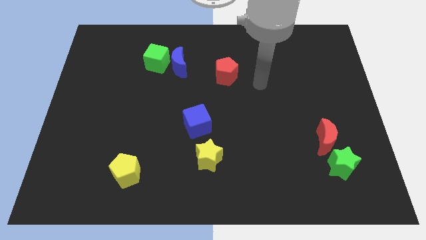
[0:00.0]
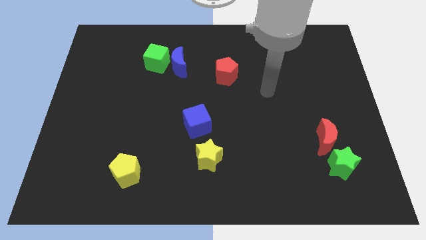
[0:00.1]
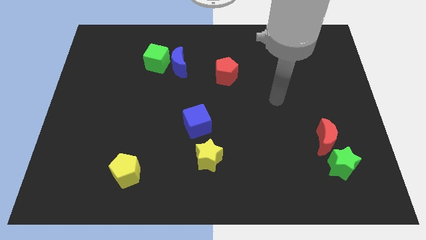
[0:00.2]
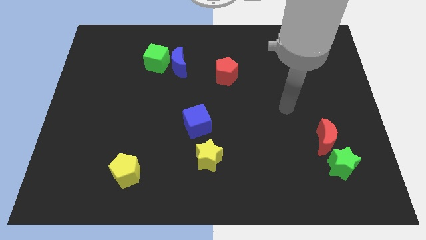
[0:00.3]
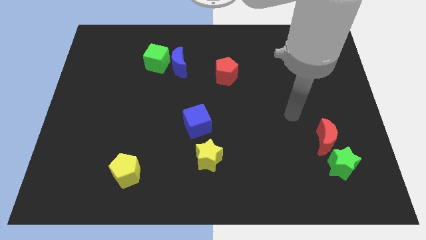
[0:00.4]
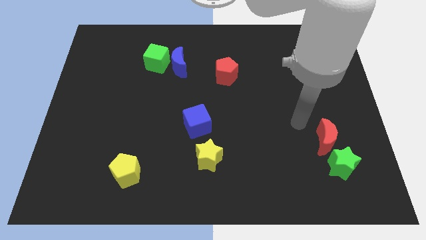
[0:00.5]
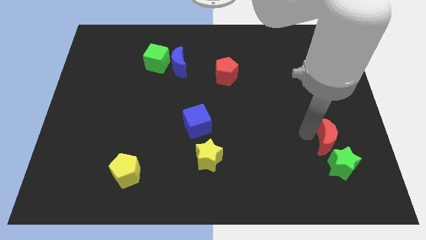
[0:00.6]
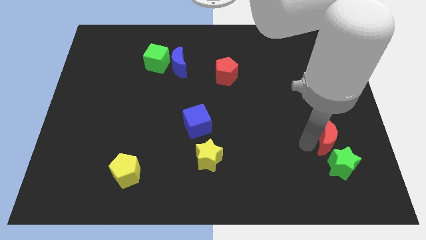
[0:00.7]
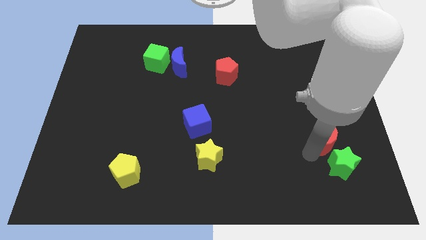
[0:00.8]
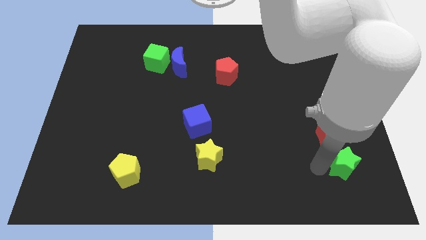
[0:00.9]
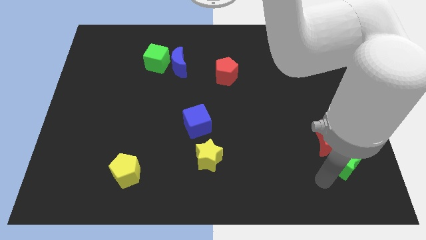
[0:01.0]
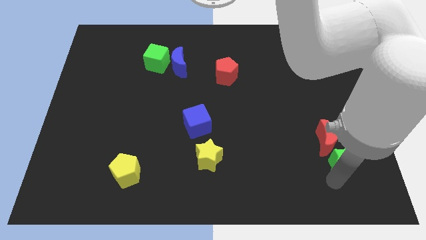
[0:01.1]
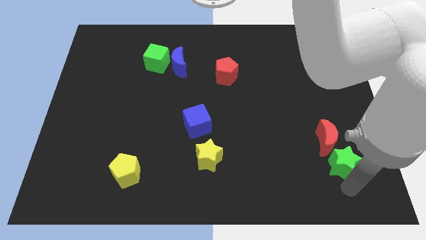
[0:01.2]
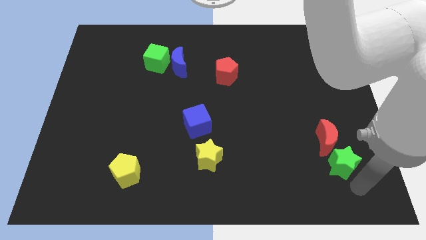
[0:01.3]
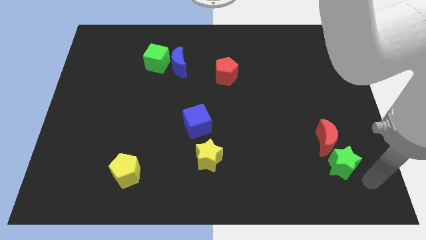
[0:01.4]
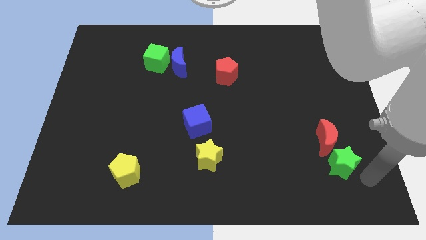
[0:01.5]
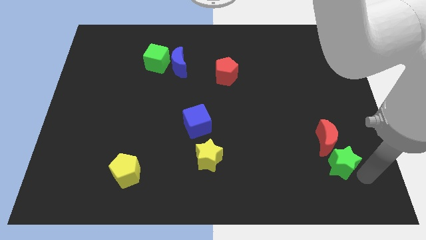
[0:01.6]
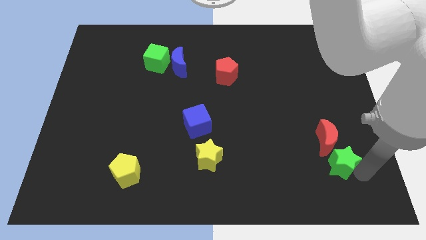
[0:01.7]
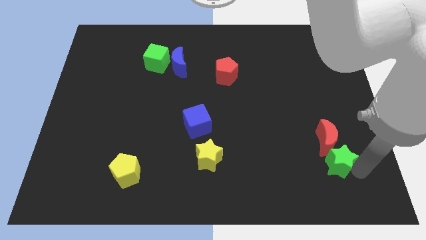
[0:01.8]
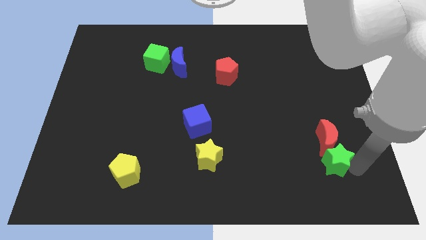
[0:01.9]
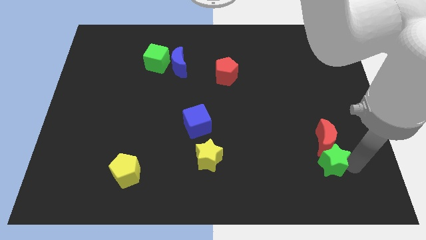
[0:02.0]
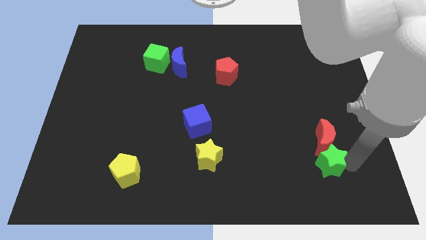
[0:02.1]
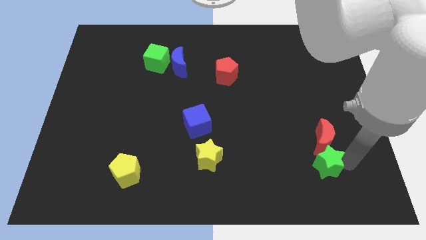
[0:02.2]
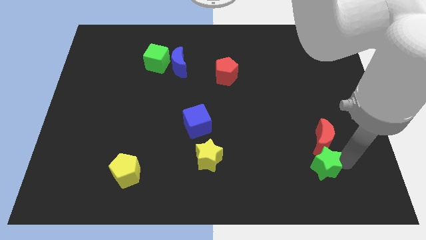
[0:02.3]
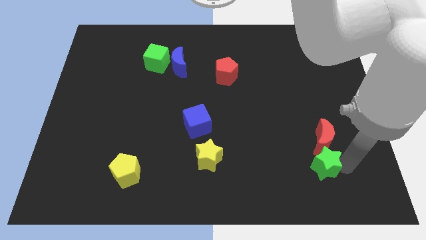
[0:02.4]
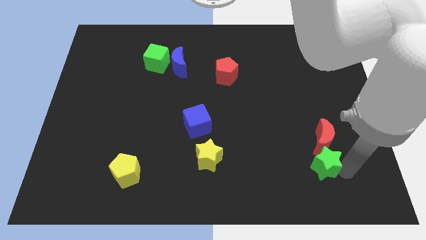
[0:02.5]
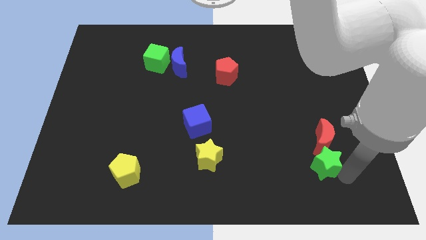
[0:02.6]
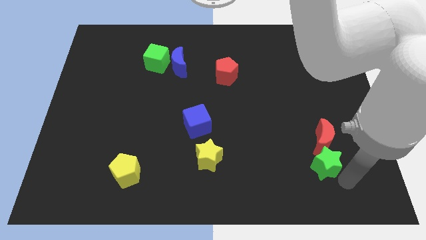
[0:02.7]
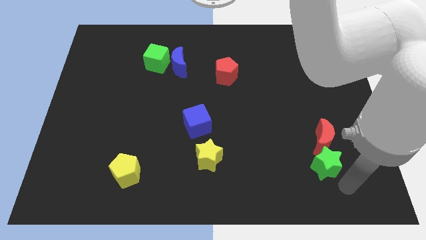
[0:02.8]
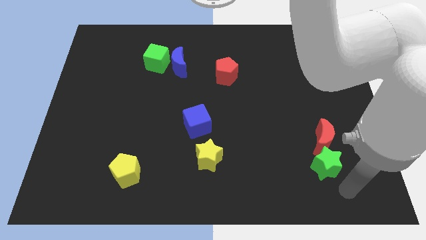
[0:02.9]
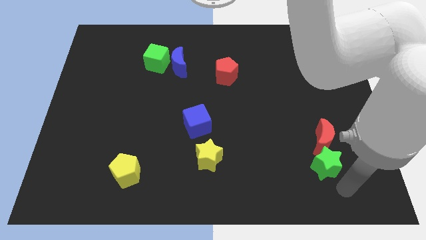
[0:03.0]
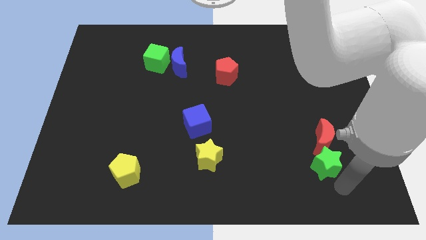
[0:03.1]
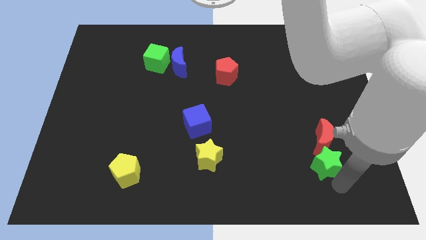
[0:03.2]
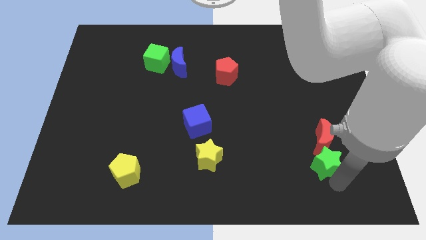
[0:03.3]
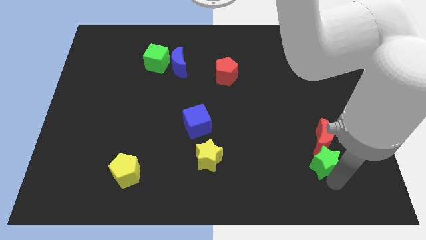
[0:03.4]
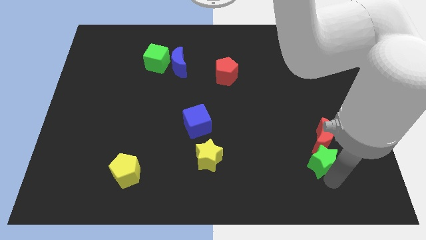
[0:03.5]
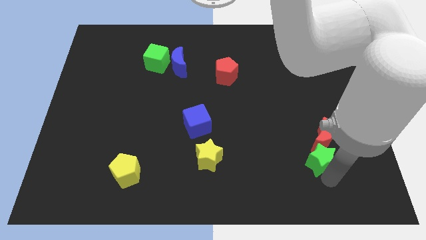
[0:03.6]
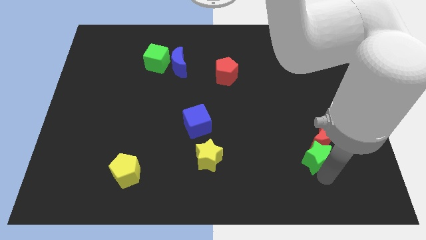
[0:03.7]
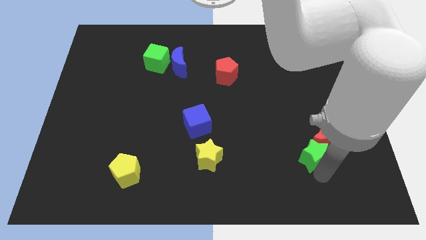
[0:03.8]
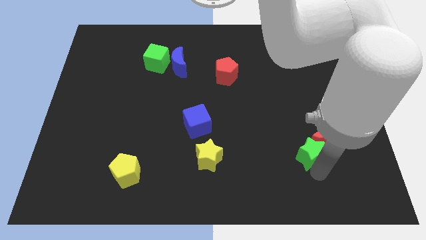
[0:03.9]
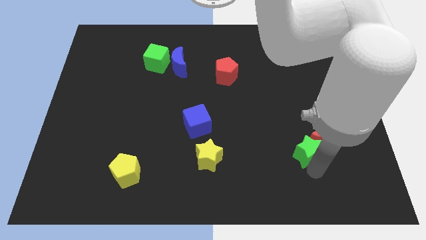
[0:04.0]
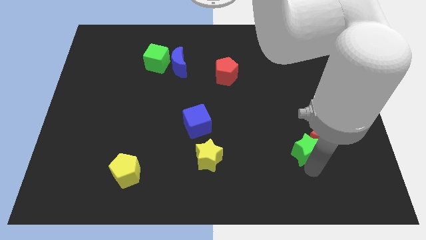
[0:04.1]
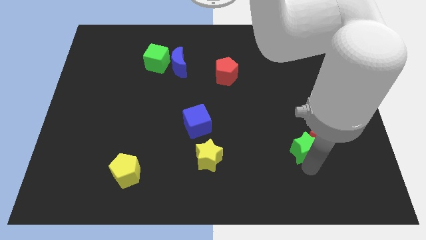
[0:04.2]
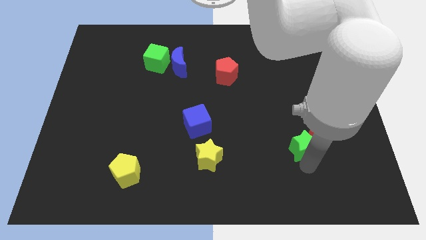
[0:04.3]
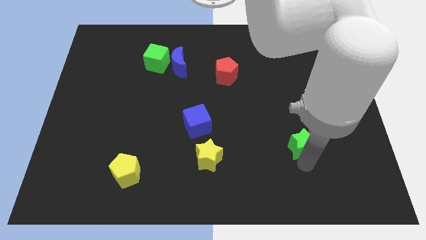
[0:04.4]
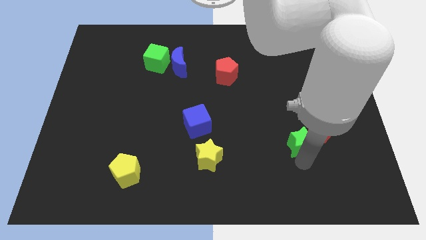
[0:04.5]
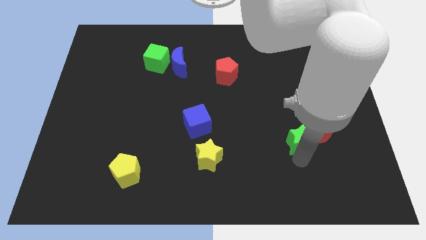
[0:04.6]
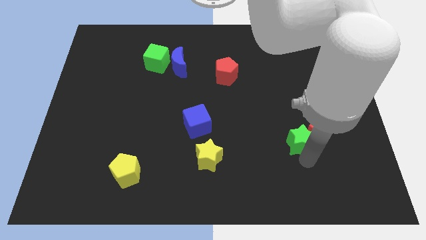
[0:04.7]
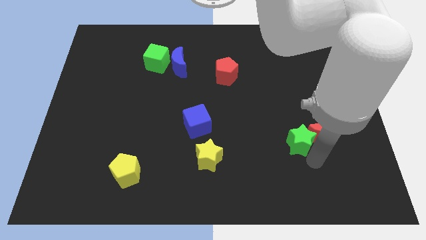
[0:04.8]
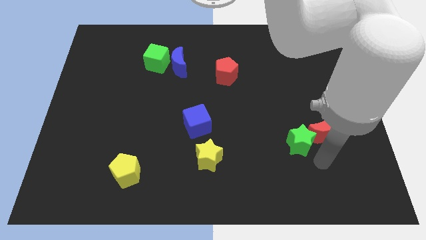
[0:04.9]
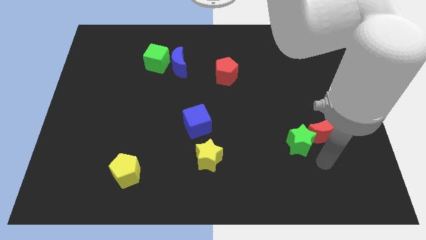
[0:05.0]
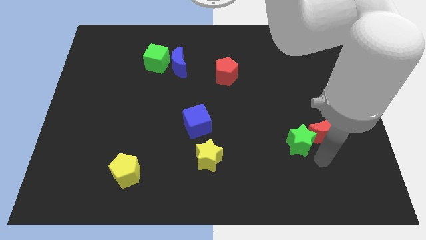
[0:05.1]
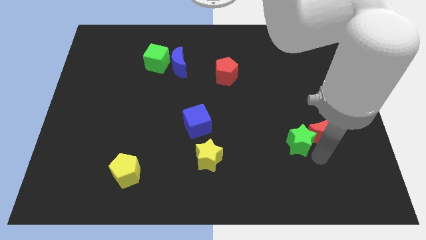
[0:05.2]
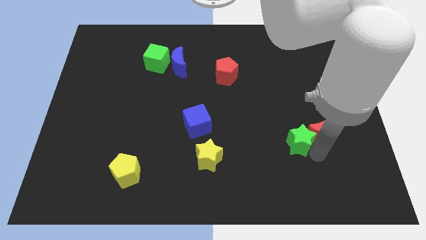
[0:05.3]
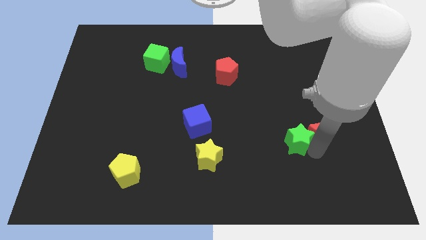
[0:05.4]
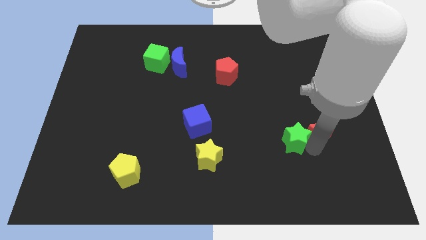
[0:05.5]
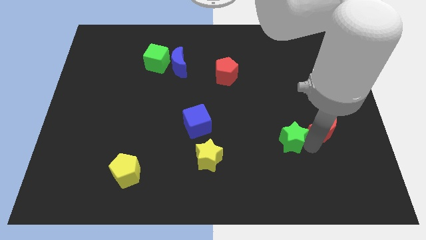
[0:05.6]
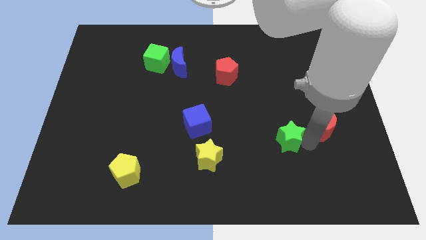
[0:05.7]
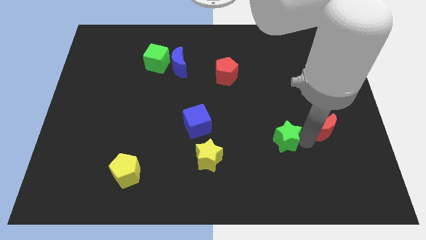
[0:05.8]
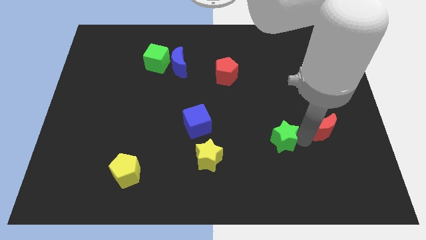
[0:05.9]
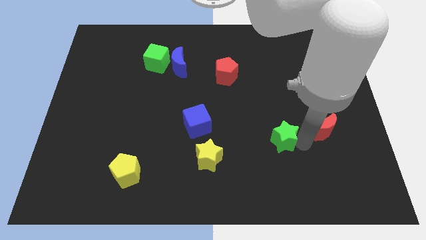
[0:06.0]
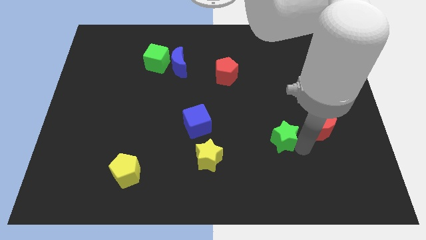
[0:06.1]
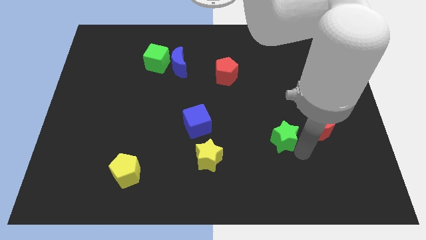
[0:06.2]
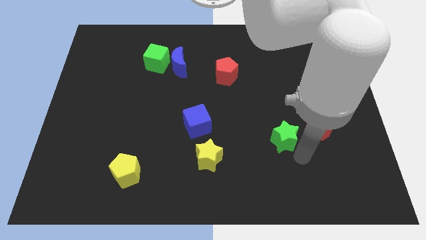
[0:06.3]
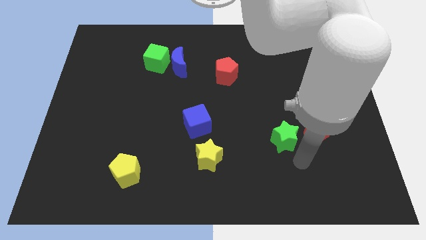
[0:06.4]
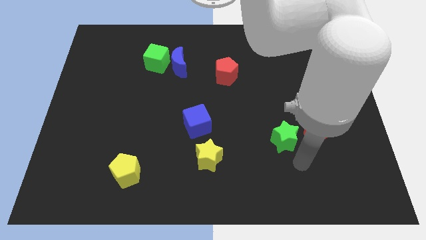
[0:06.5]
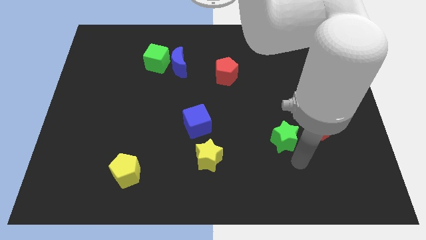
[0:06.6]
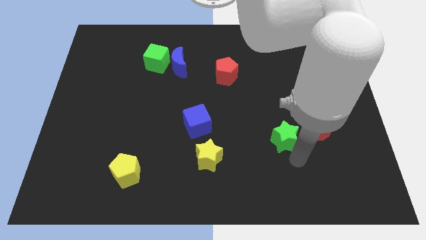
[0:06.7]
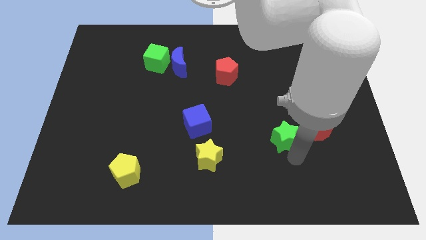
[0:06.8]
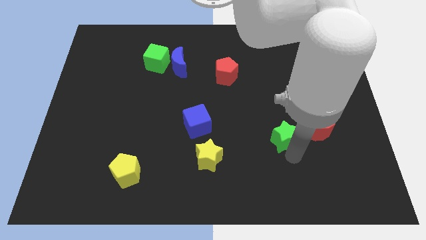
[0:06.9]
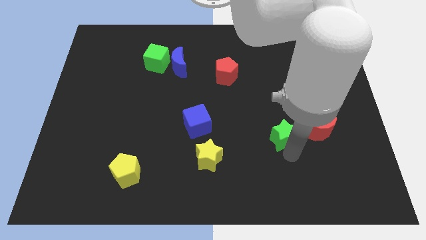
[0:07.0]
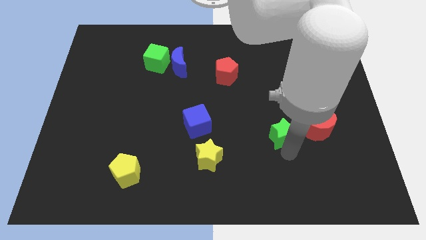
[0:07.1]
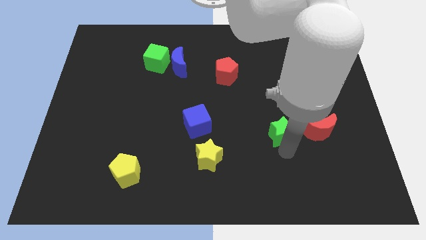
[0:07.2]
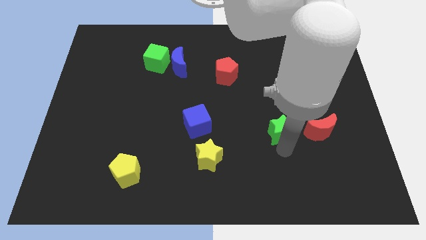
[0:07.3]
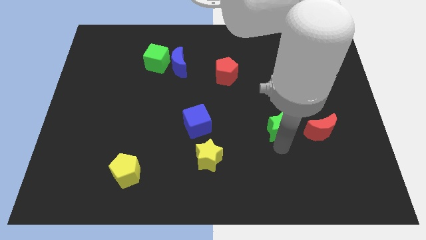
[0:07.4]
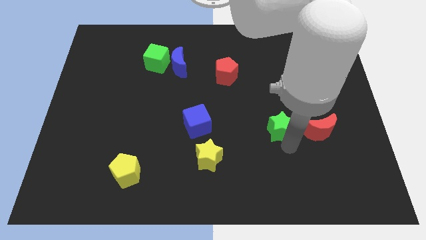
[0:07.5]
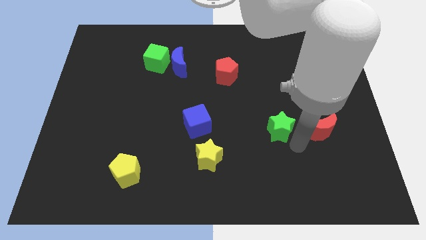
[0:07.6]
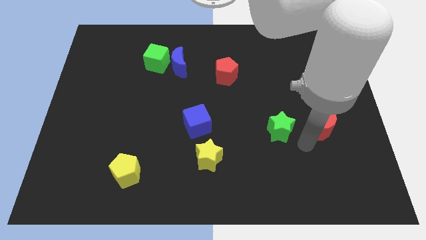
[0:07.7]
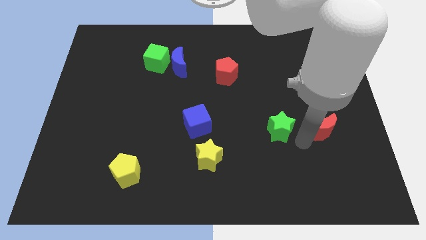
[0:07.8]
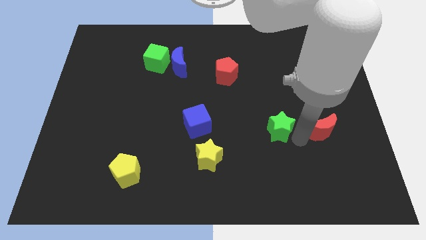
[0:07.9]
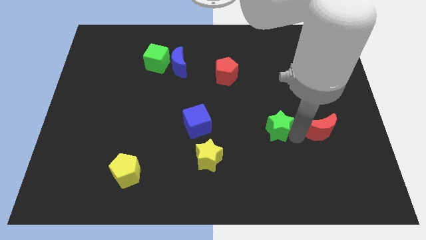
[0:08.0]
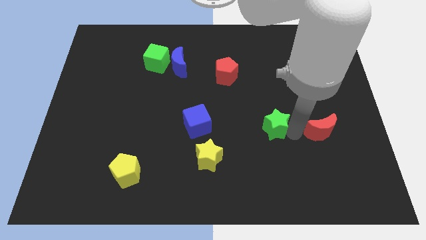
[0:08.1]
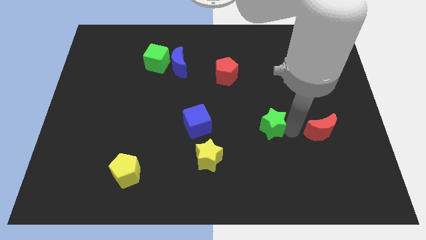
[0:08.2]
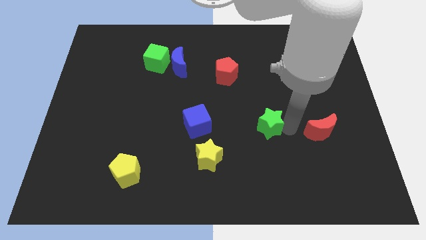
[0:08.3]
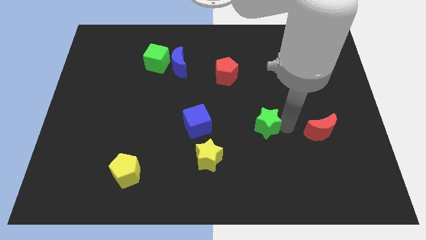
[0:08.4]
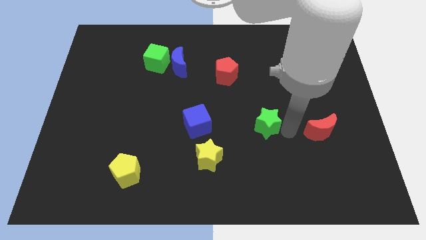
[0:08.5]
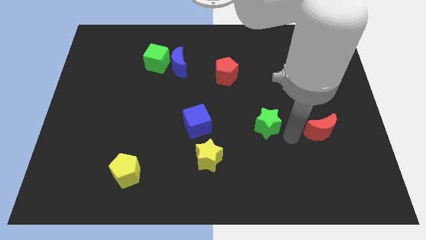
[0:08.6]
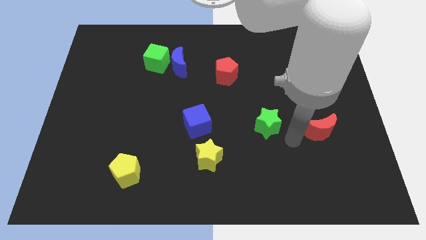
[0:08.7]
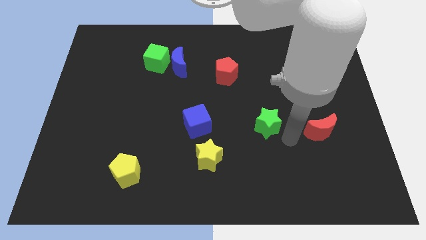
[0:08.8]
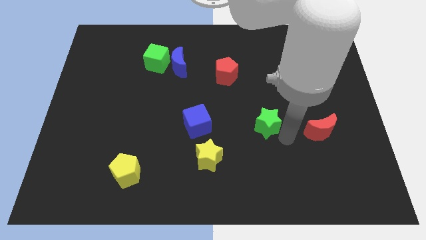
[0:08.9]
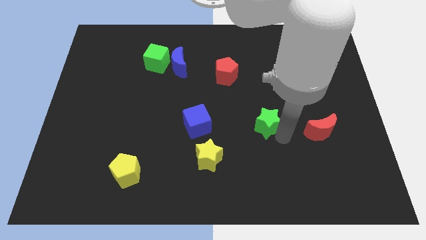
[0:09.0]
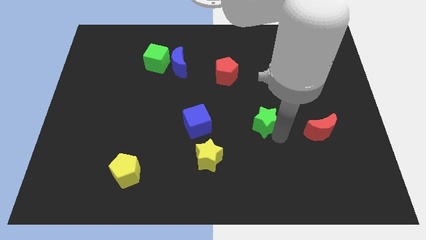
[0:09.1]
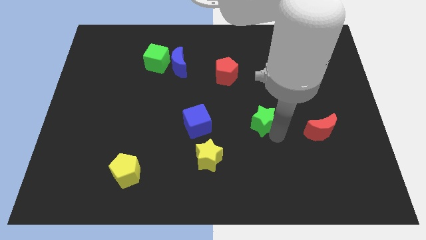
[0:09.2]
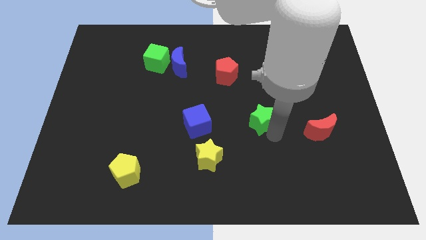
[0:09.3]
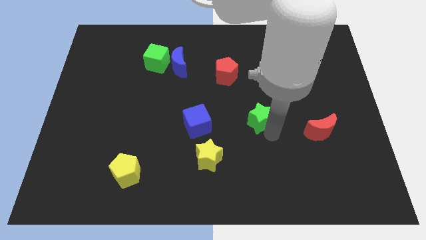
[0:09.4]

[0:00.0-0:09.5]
move the green star to the middle of the board
